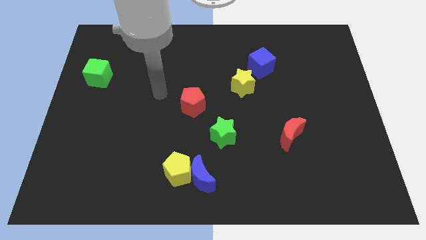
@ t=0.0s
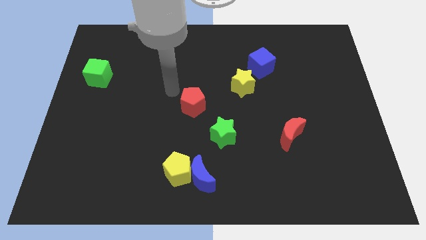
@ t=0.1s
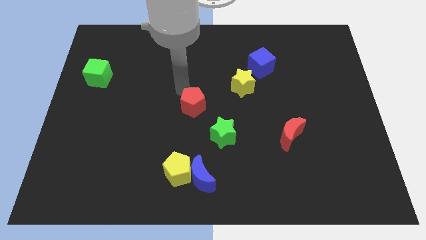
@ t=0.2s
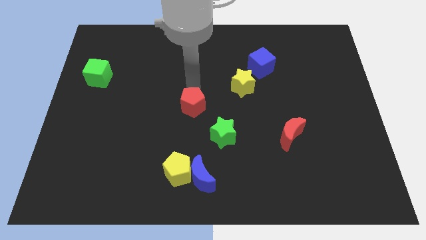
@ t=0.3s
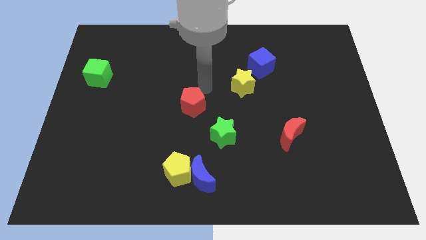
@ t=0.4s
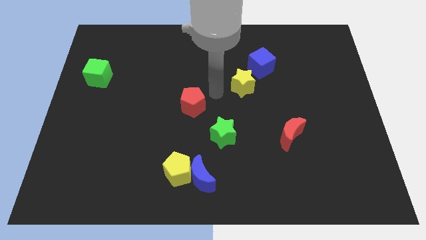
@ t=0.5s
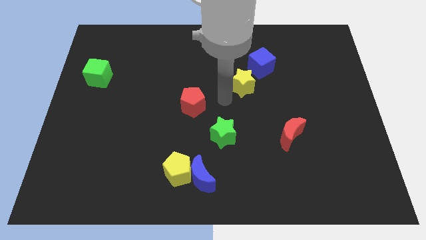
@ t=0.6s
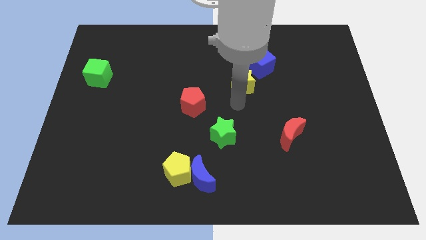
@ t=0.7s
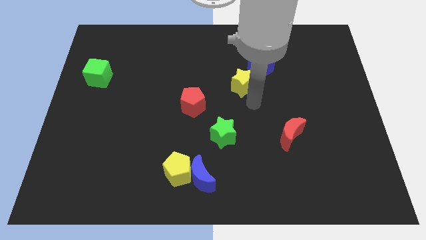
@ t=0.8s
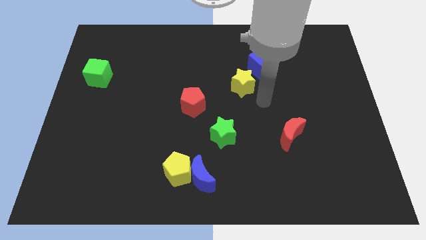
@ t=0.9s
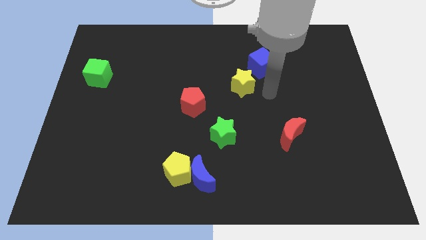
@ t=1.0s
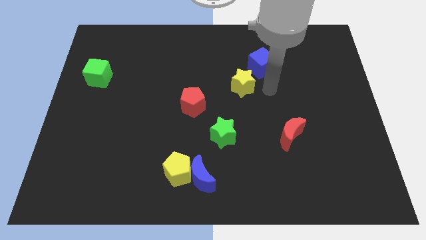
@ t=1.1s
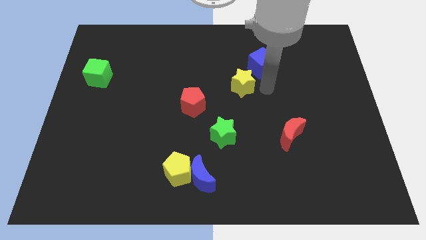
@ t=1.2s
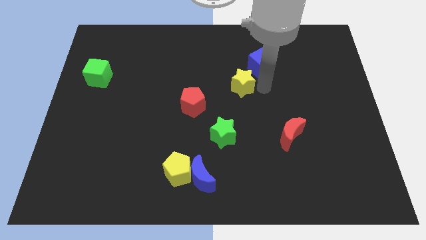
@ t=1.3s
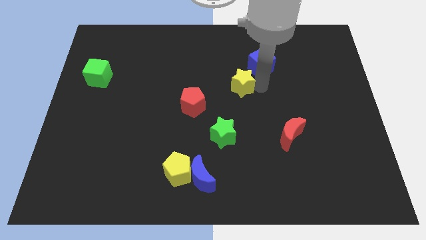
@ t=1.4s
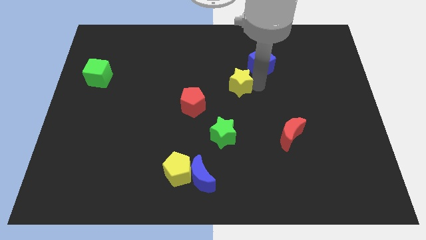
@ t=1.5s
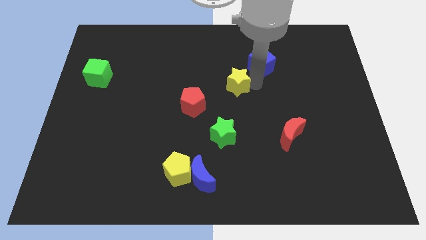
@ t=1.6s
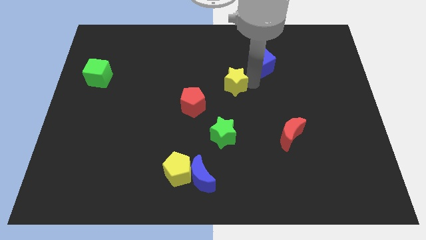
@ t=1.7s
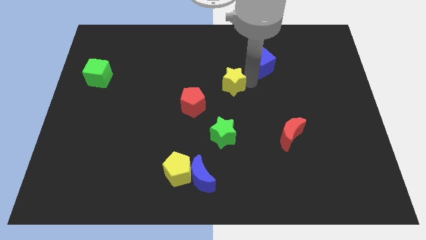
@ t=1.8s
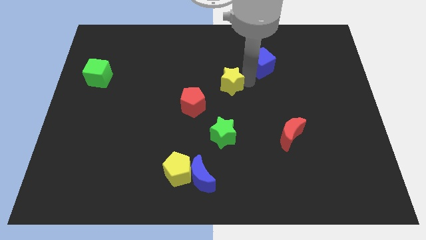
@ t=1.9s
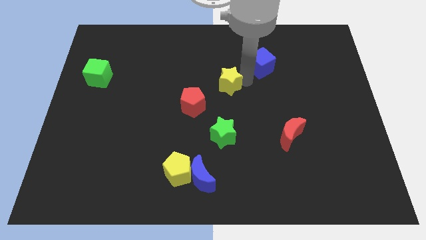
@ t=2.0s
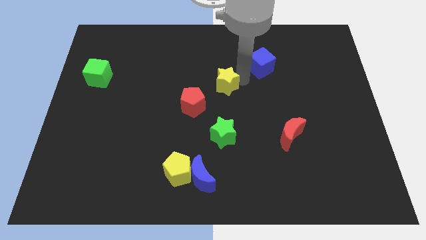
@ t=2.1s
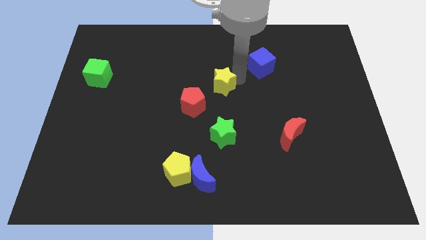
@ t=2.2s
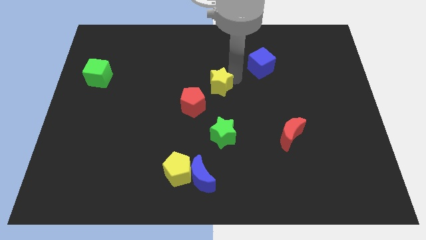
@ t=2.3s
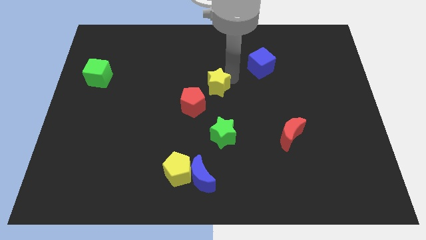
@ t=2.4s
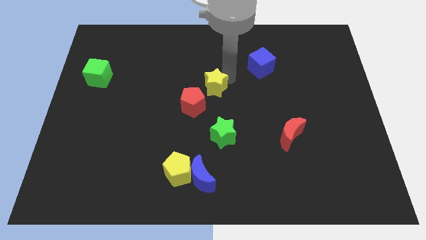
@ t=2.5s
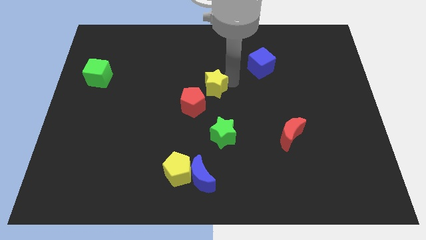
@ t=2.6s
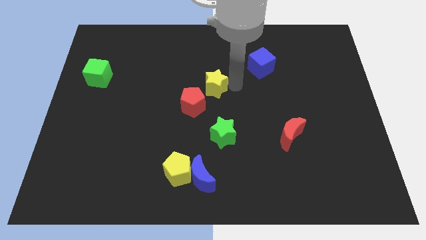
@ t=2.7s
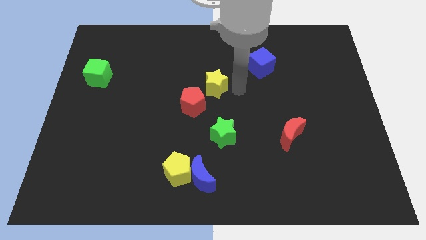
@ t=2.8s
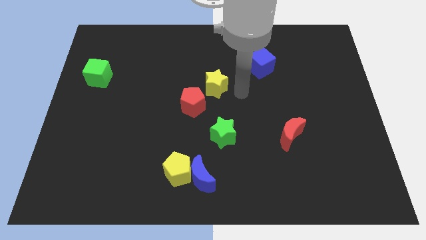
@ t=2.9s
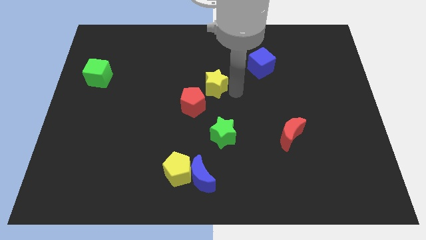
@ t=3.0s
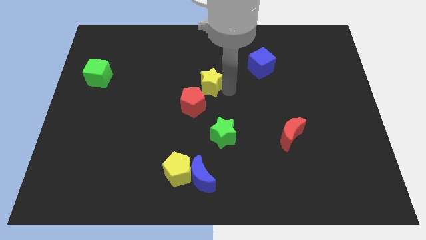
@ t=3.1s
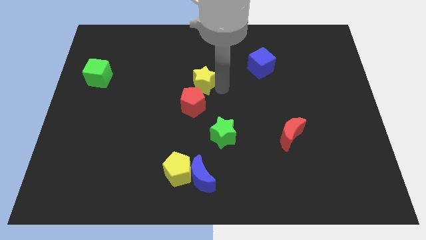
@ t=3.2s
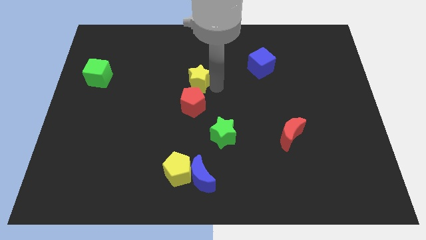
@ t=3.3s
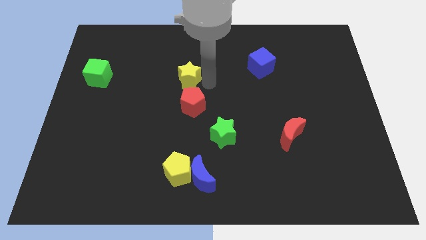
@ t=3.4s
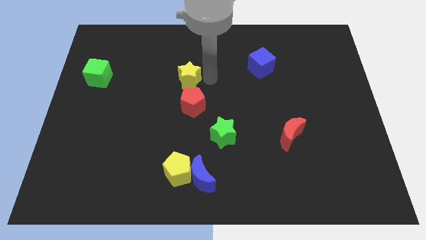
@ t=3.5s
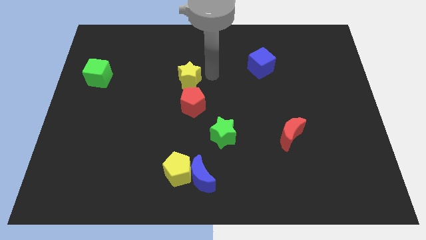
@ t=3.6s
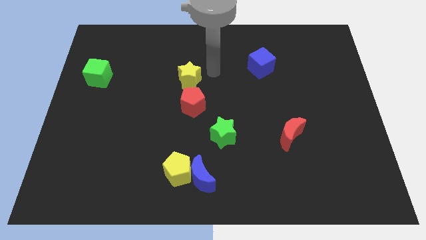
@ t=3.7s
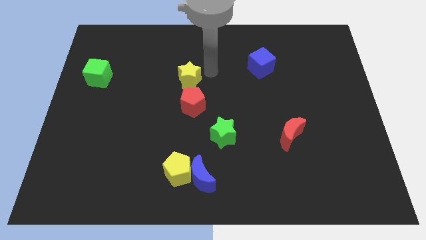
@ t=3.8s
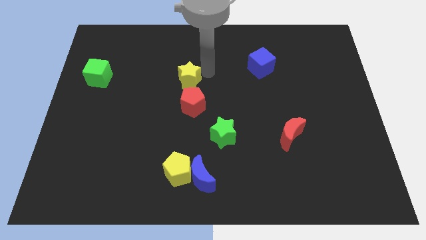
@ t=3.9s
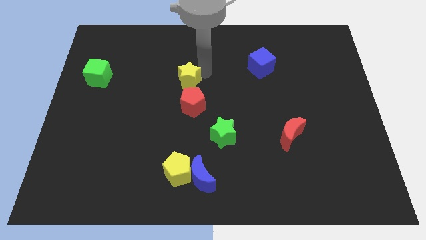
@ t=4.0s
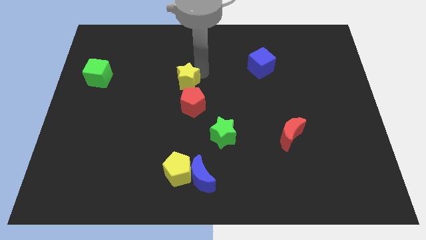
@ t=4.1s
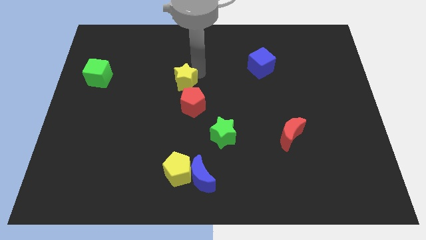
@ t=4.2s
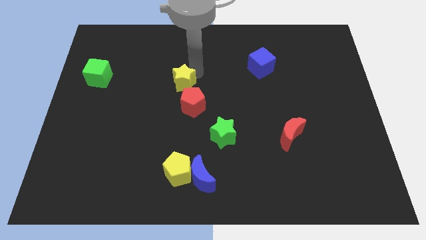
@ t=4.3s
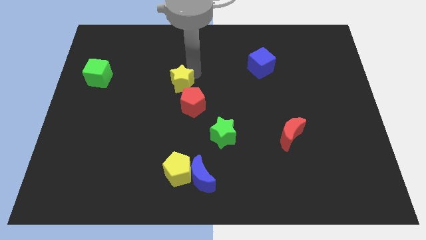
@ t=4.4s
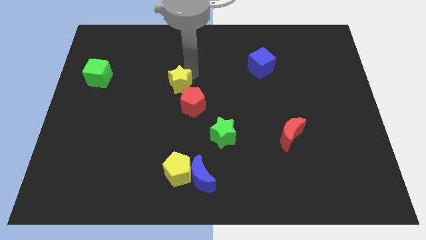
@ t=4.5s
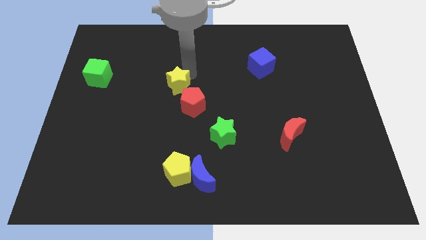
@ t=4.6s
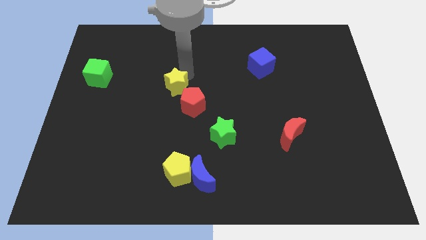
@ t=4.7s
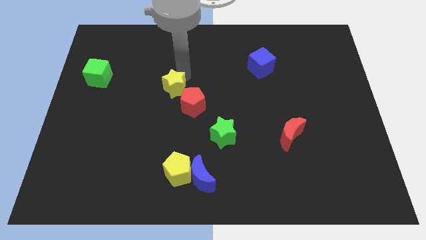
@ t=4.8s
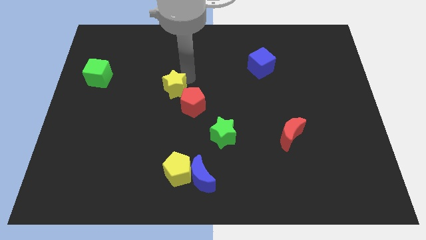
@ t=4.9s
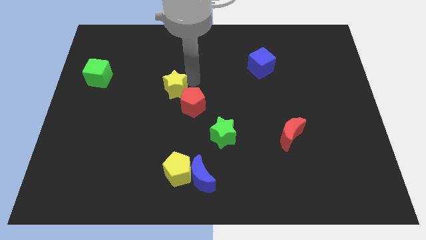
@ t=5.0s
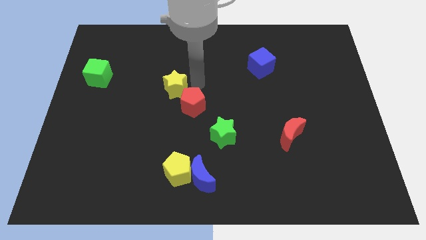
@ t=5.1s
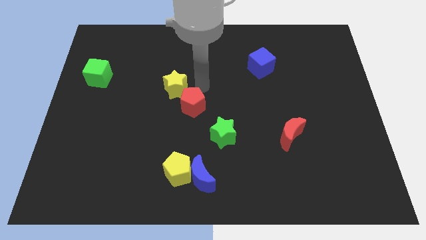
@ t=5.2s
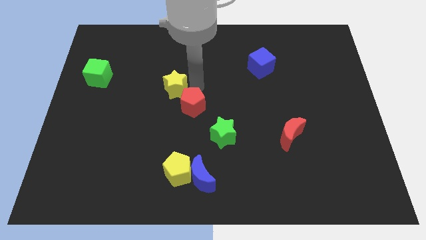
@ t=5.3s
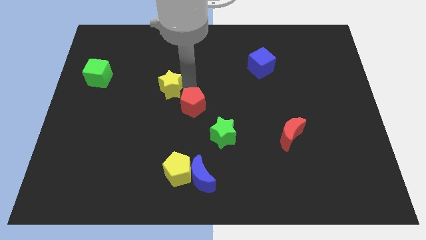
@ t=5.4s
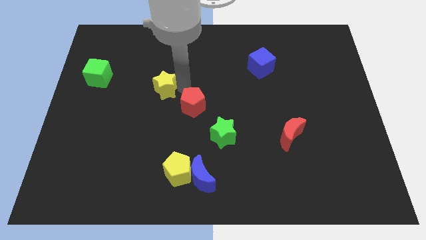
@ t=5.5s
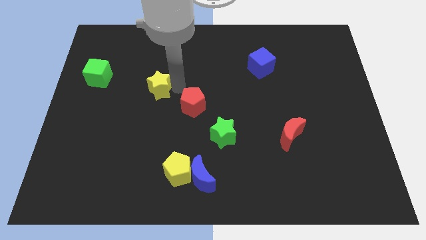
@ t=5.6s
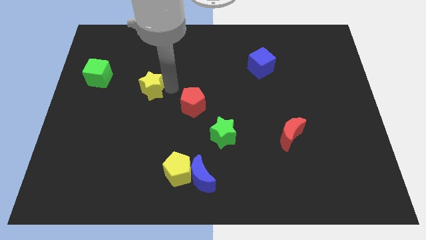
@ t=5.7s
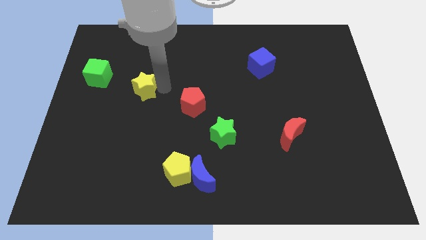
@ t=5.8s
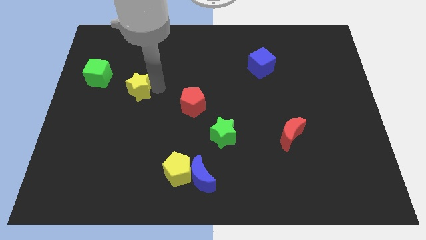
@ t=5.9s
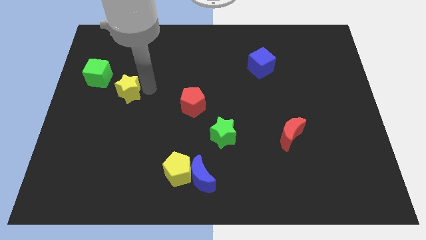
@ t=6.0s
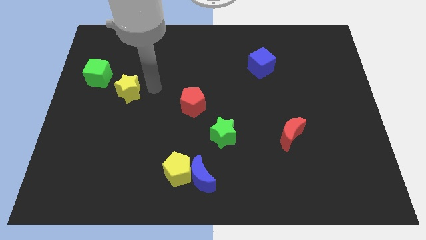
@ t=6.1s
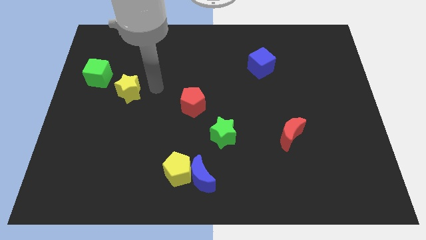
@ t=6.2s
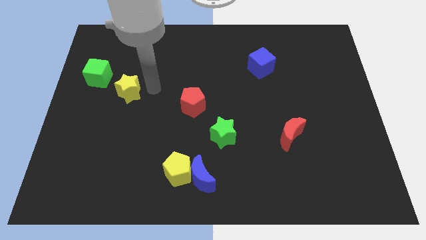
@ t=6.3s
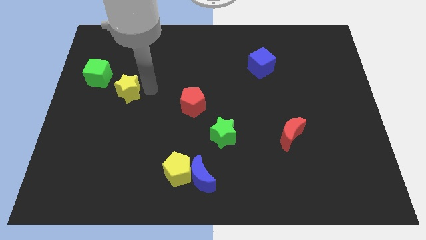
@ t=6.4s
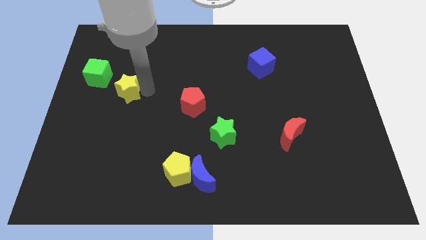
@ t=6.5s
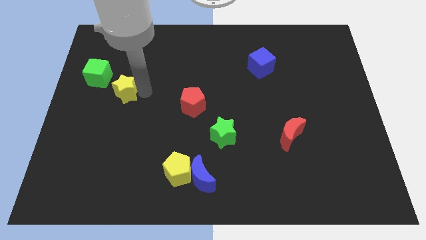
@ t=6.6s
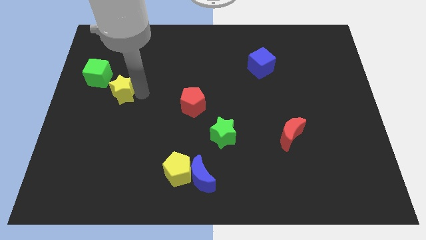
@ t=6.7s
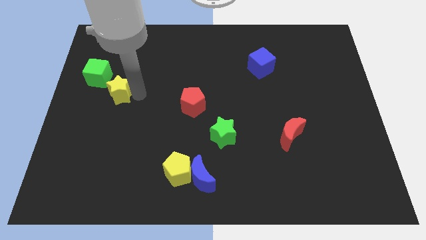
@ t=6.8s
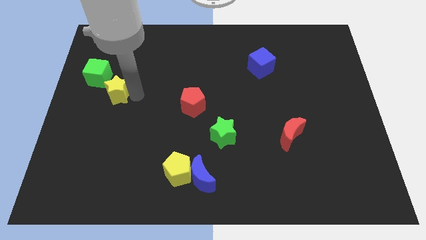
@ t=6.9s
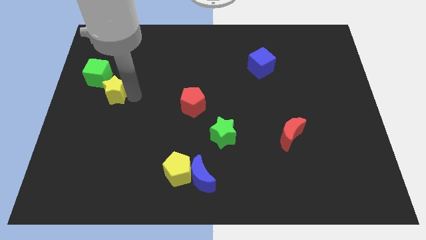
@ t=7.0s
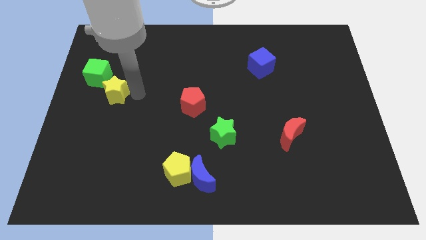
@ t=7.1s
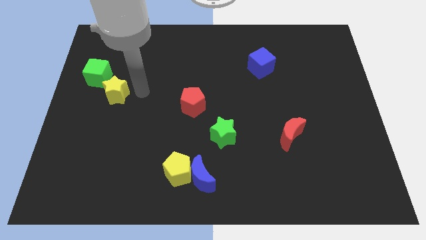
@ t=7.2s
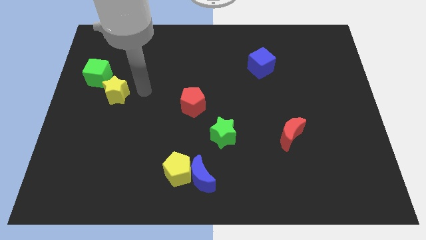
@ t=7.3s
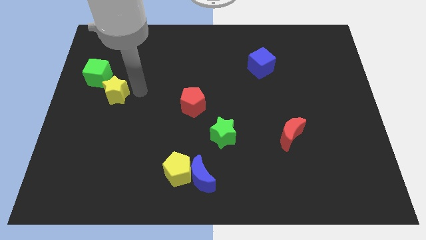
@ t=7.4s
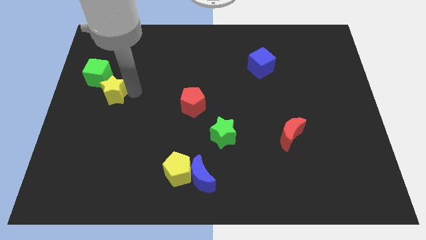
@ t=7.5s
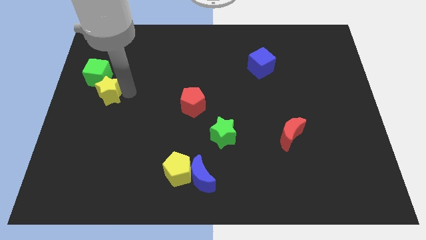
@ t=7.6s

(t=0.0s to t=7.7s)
push the yellow star to the center left
